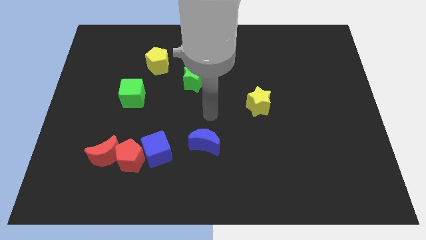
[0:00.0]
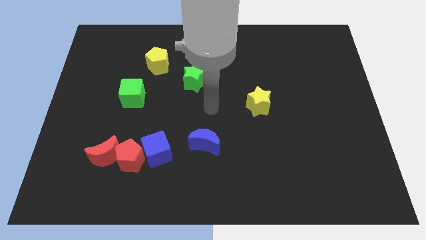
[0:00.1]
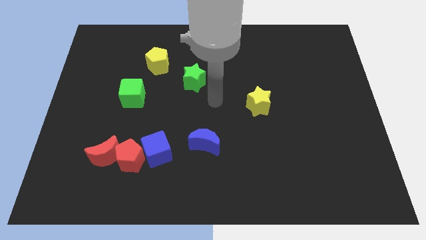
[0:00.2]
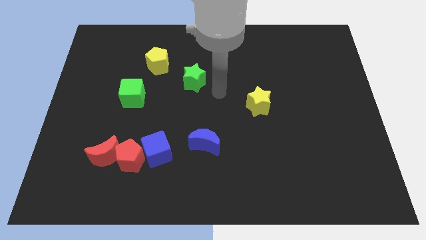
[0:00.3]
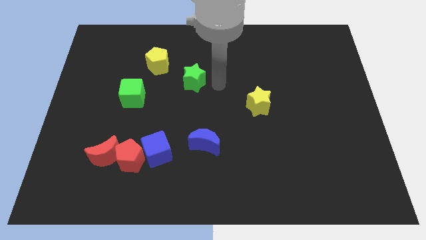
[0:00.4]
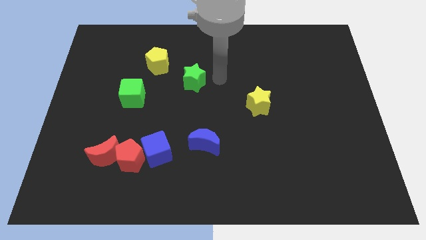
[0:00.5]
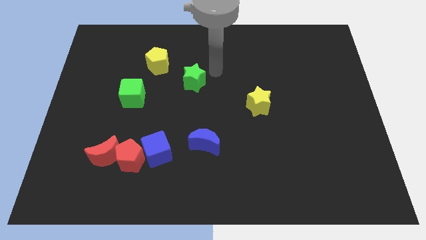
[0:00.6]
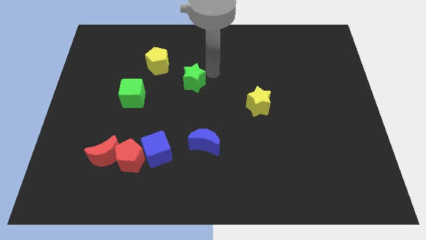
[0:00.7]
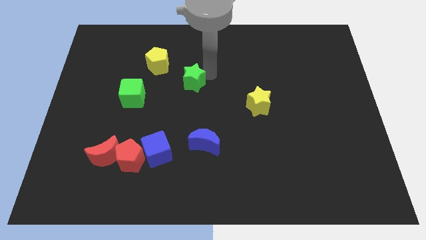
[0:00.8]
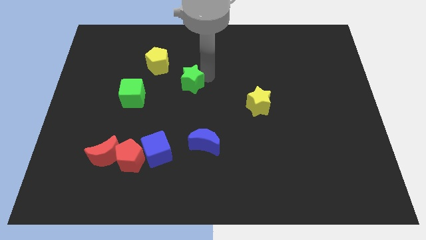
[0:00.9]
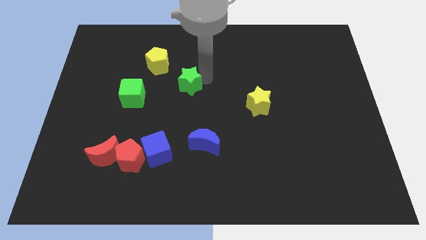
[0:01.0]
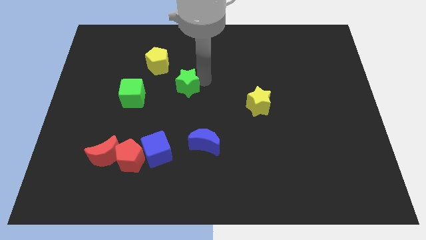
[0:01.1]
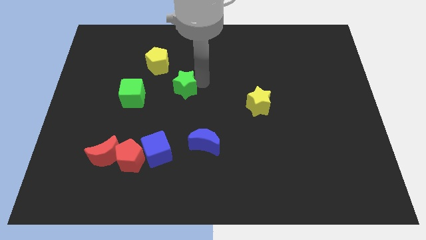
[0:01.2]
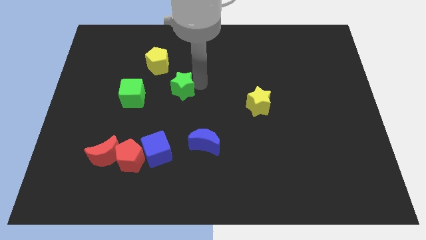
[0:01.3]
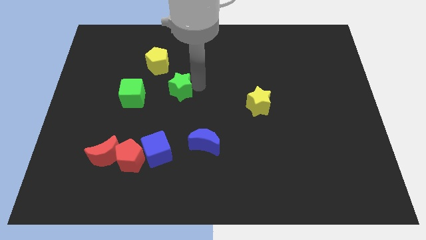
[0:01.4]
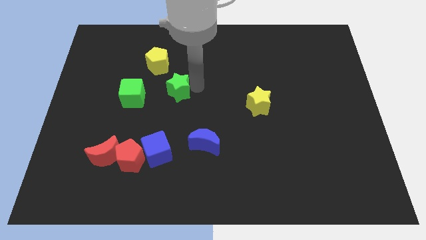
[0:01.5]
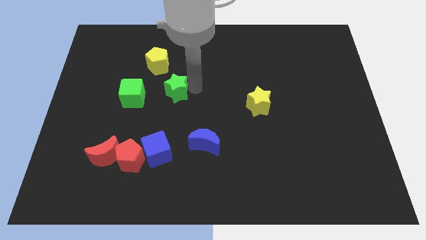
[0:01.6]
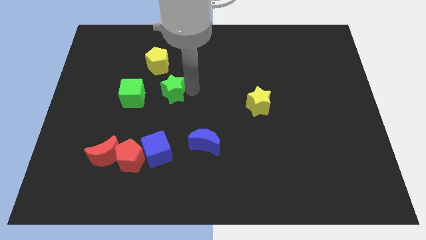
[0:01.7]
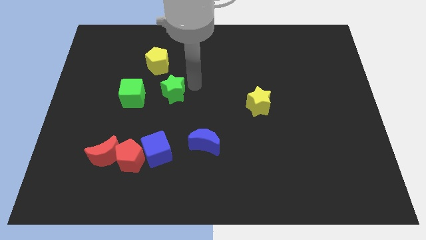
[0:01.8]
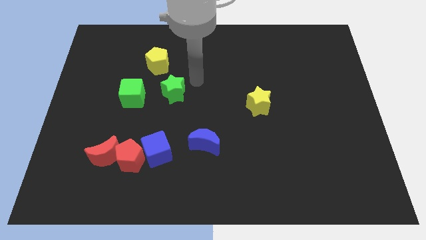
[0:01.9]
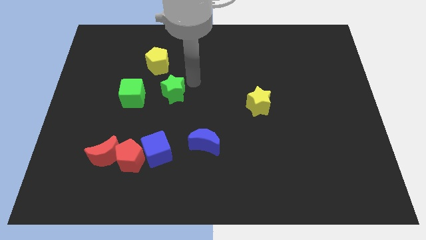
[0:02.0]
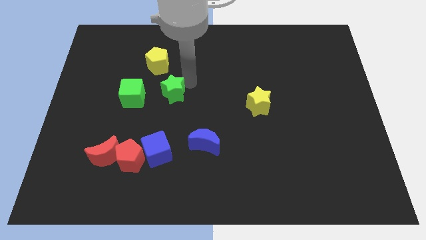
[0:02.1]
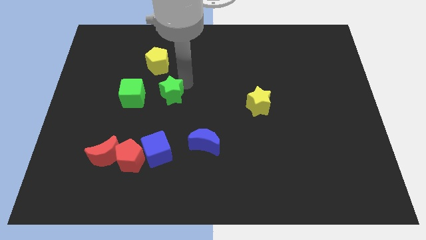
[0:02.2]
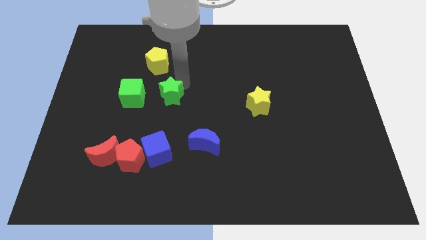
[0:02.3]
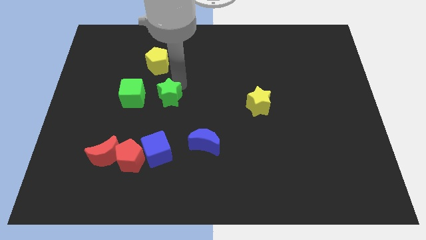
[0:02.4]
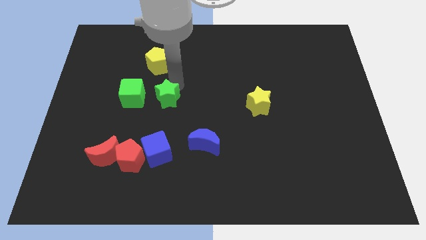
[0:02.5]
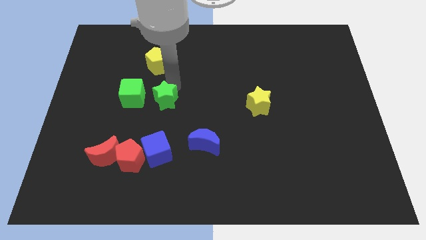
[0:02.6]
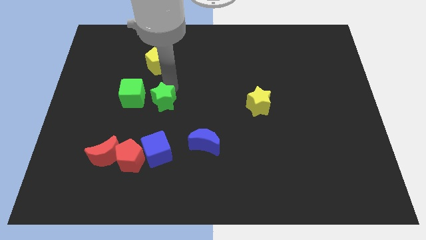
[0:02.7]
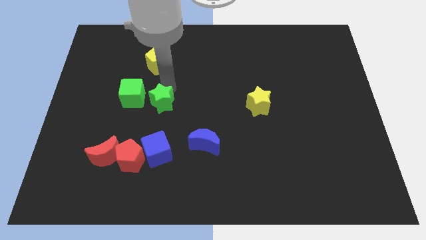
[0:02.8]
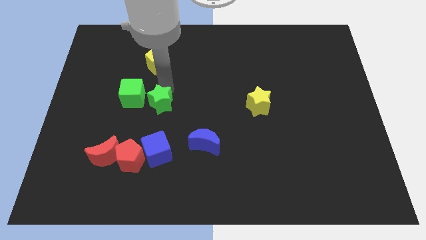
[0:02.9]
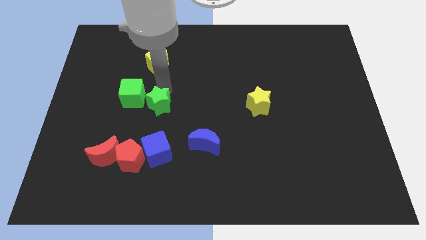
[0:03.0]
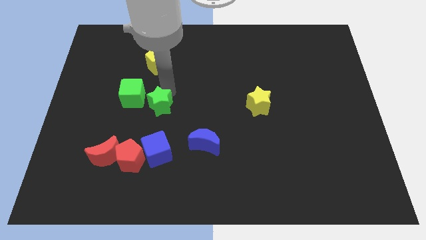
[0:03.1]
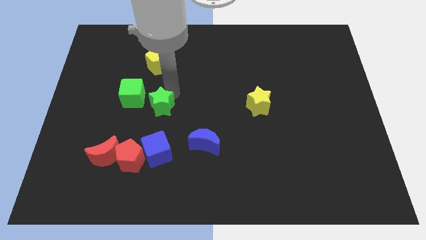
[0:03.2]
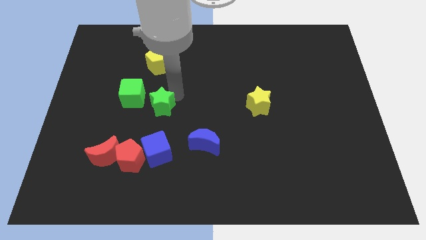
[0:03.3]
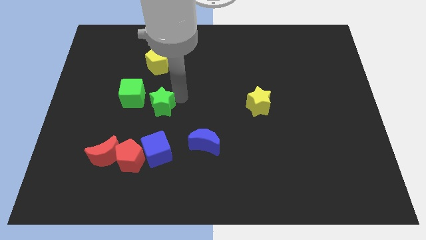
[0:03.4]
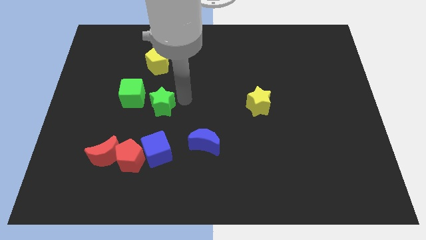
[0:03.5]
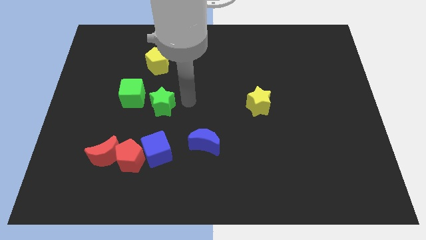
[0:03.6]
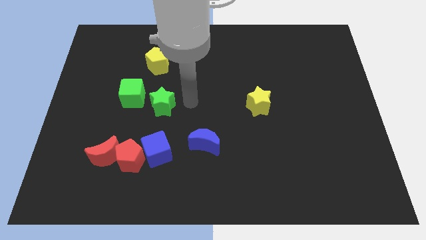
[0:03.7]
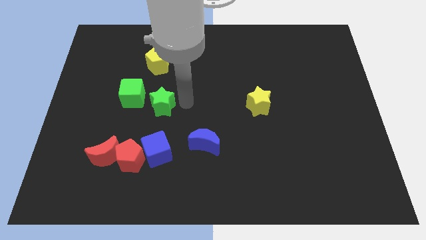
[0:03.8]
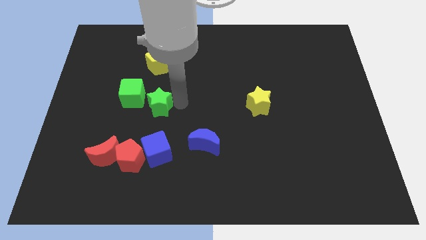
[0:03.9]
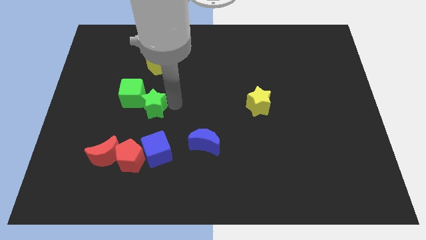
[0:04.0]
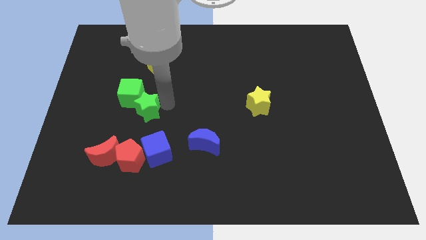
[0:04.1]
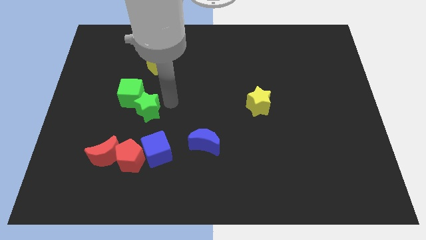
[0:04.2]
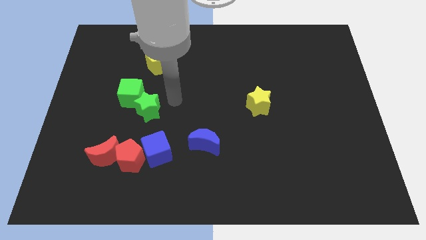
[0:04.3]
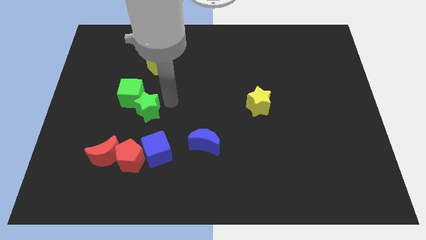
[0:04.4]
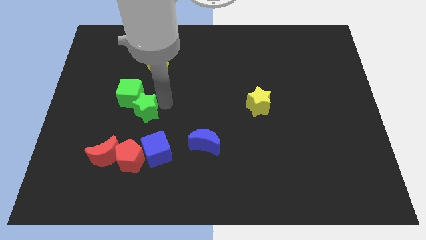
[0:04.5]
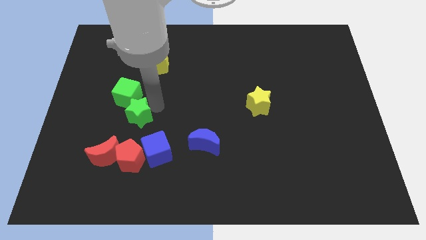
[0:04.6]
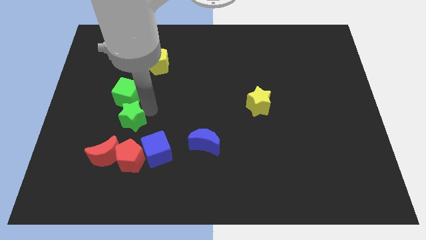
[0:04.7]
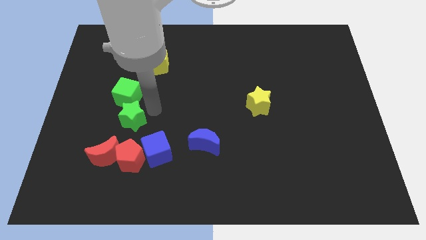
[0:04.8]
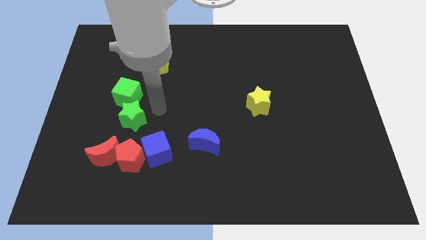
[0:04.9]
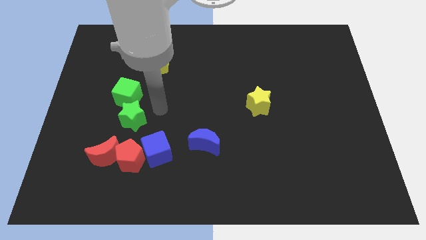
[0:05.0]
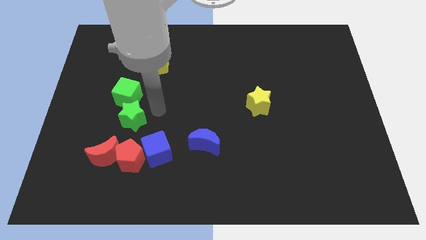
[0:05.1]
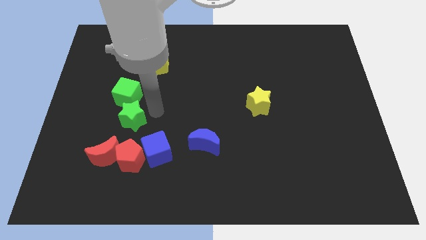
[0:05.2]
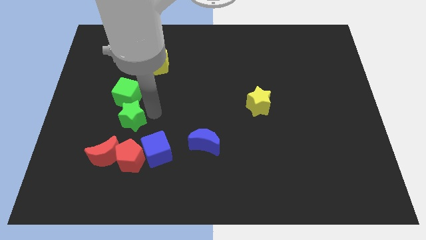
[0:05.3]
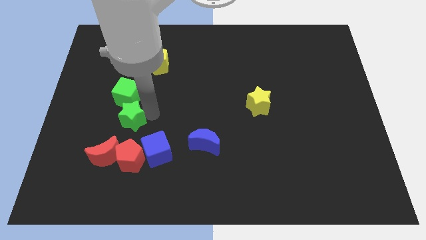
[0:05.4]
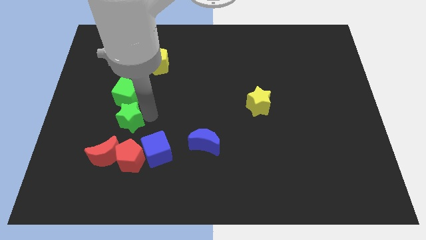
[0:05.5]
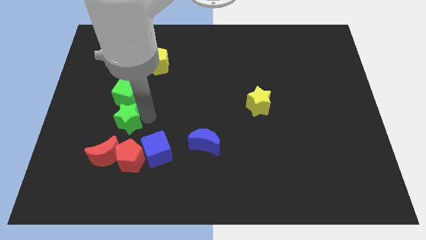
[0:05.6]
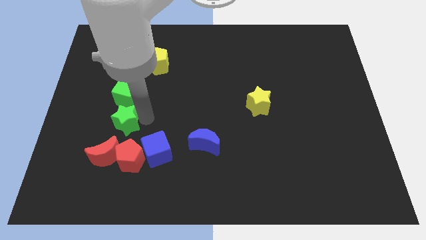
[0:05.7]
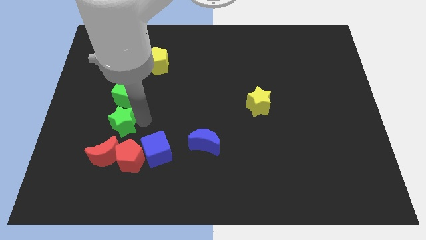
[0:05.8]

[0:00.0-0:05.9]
slide the green star downwards and then left

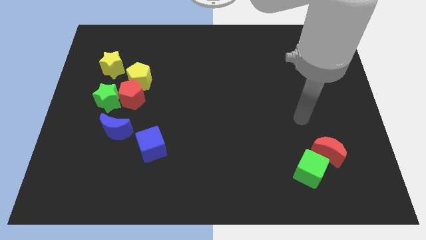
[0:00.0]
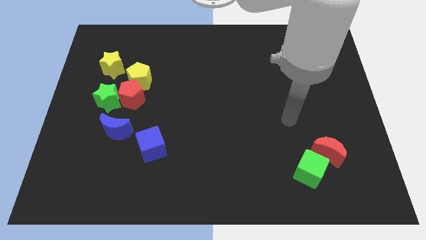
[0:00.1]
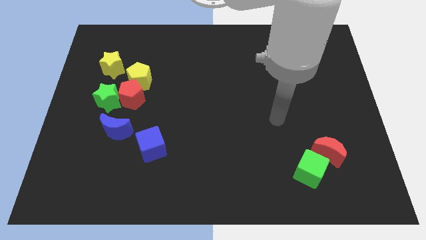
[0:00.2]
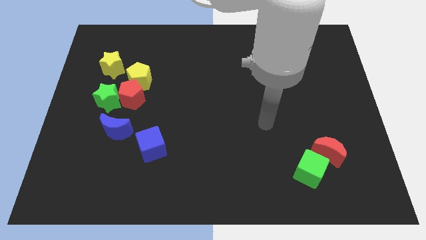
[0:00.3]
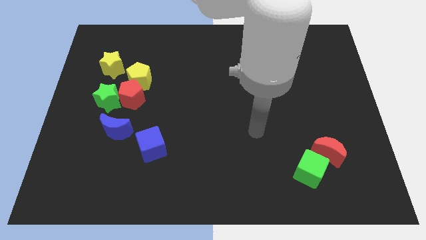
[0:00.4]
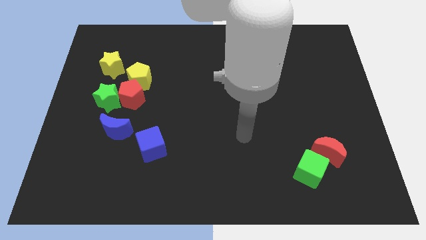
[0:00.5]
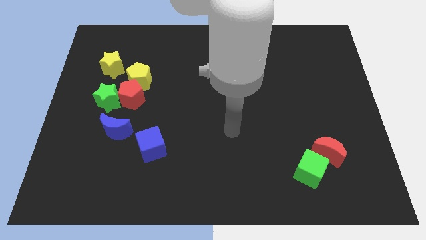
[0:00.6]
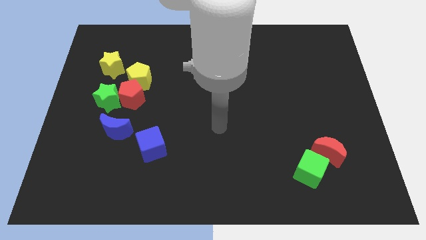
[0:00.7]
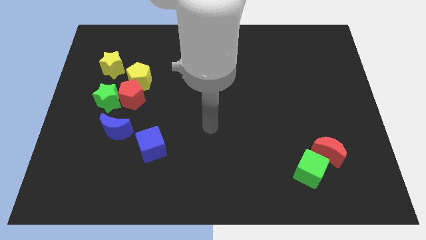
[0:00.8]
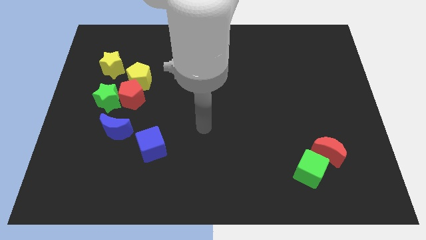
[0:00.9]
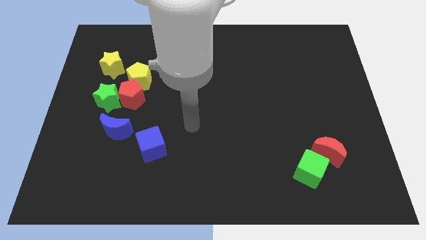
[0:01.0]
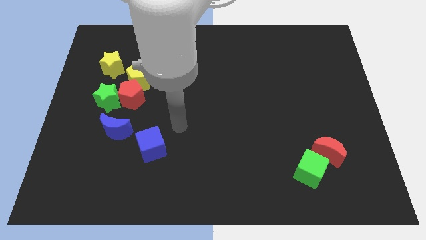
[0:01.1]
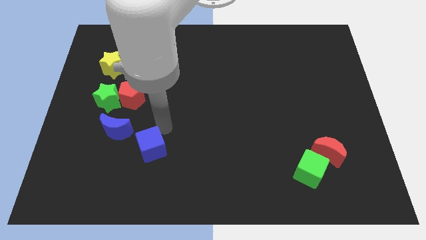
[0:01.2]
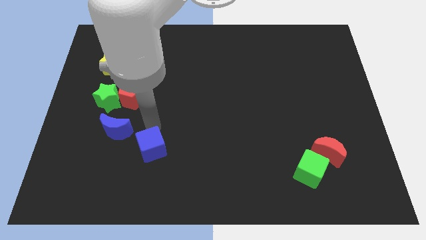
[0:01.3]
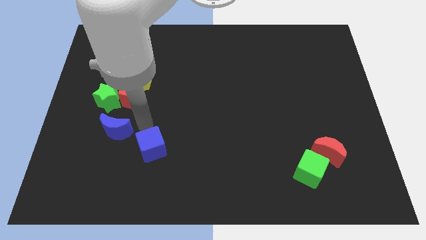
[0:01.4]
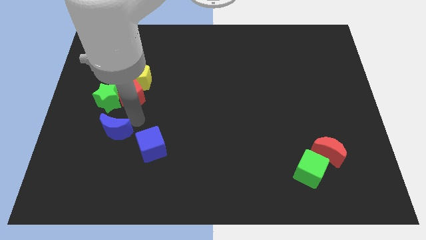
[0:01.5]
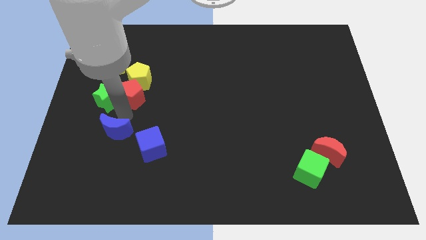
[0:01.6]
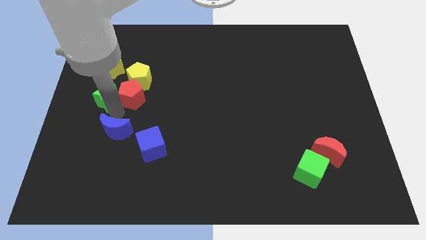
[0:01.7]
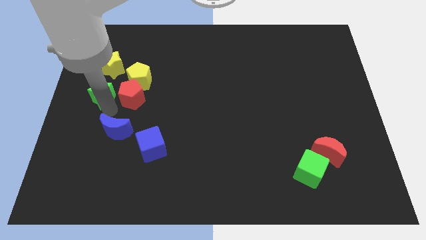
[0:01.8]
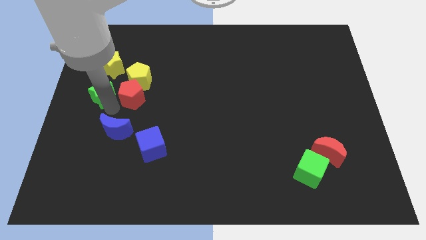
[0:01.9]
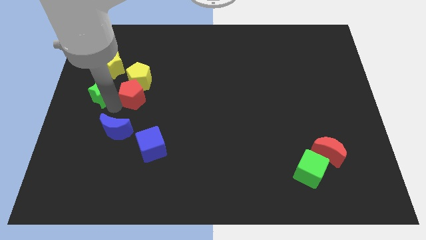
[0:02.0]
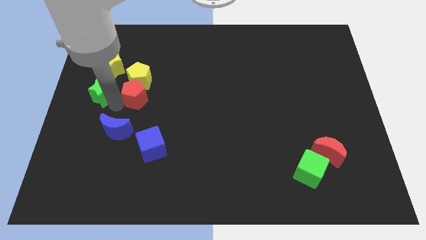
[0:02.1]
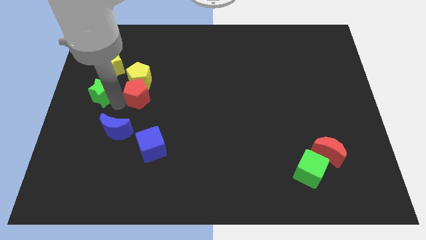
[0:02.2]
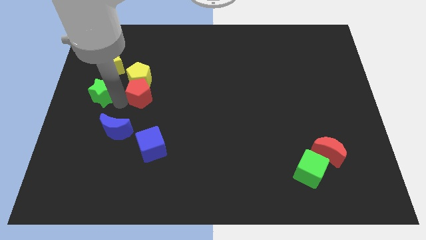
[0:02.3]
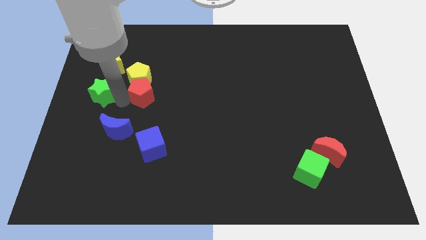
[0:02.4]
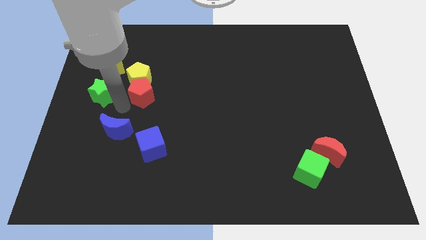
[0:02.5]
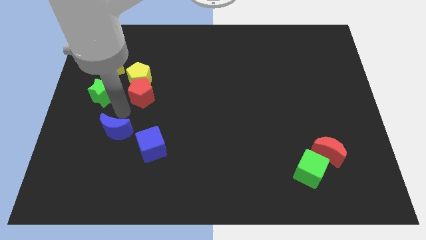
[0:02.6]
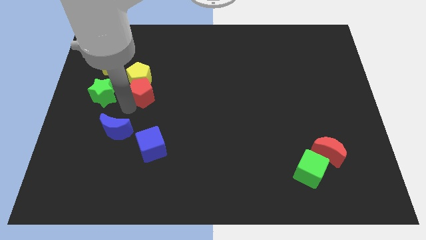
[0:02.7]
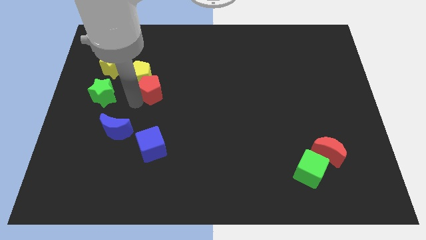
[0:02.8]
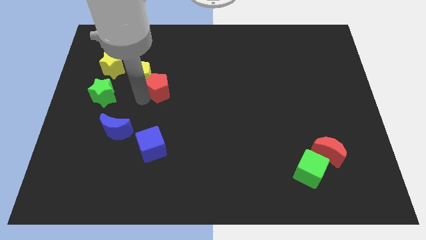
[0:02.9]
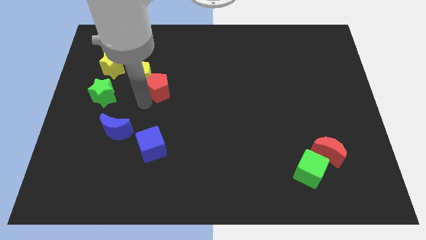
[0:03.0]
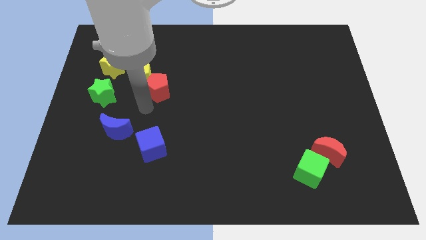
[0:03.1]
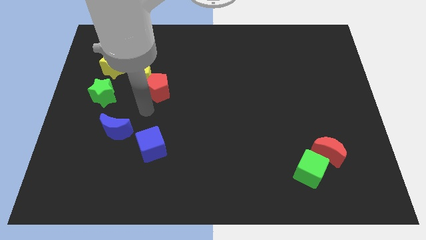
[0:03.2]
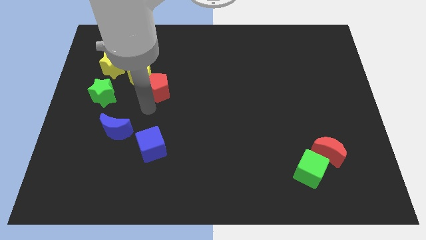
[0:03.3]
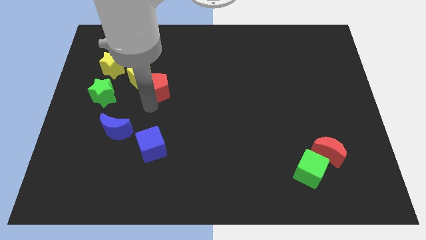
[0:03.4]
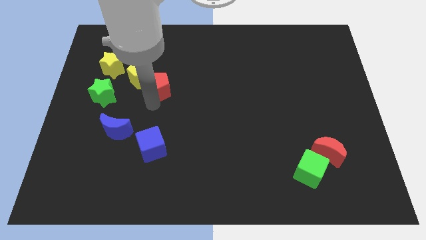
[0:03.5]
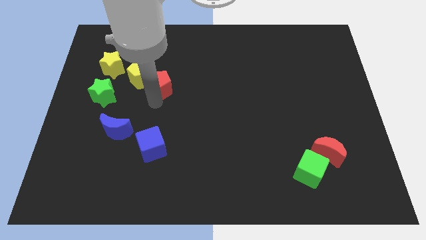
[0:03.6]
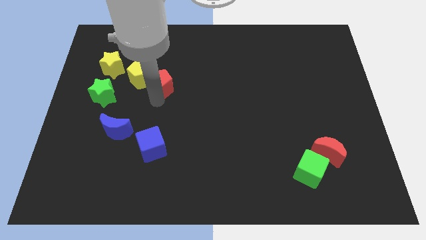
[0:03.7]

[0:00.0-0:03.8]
slightly move the red pentagon upwards and to the right
